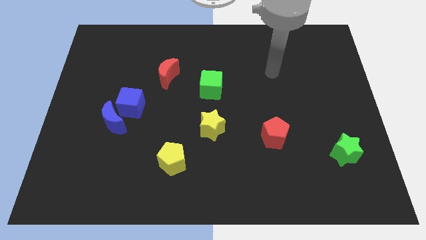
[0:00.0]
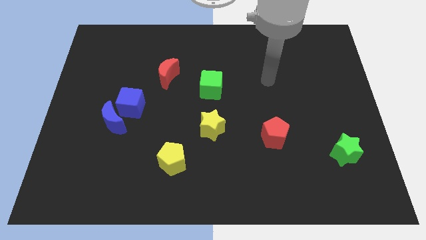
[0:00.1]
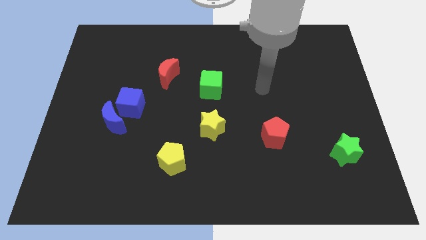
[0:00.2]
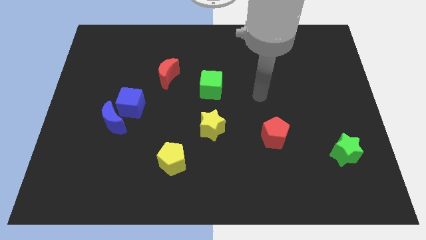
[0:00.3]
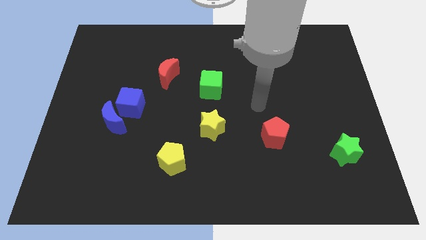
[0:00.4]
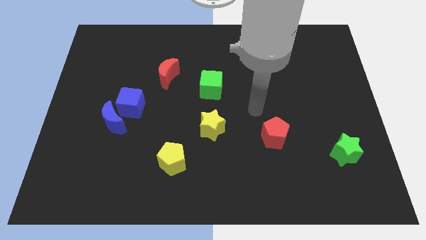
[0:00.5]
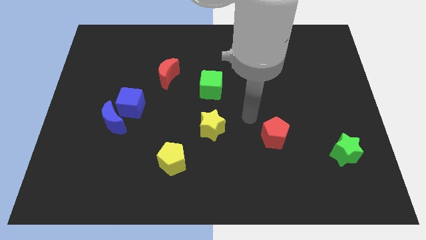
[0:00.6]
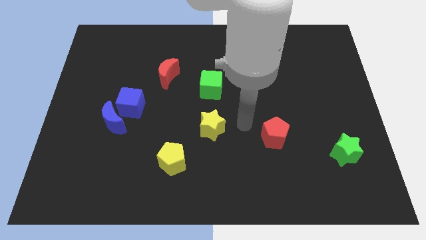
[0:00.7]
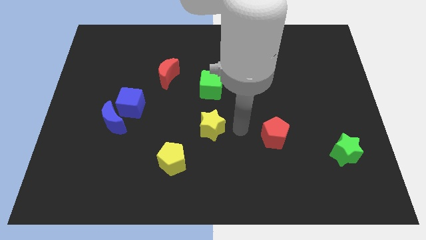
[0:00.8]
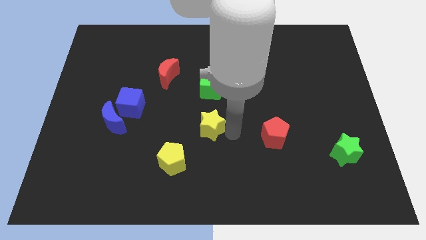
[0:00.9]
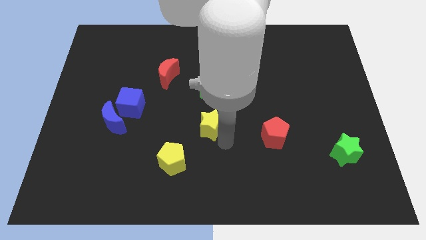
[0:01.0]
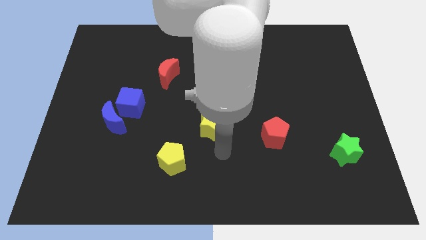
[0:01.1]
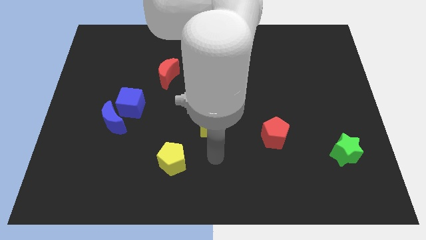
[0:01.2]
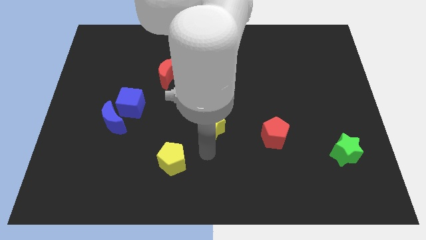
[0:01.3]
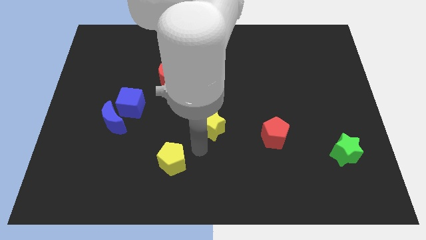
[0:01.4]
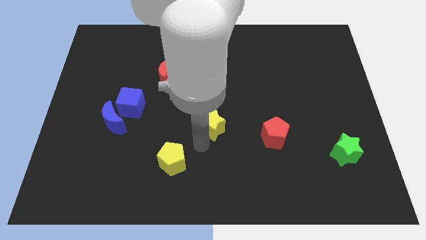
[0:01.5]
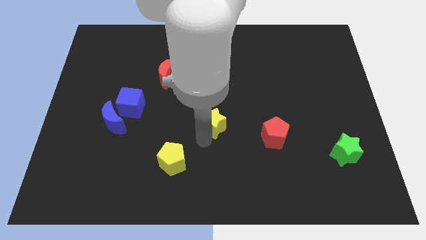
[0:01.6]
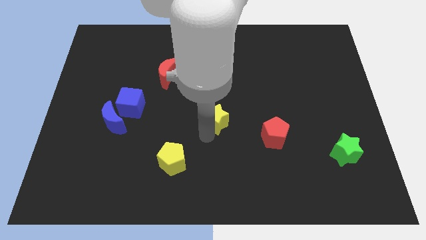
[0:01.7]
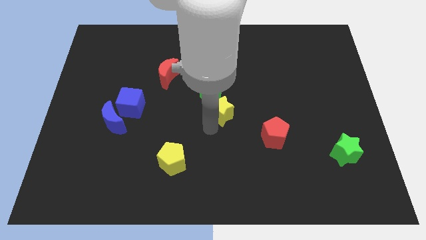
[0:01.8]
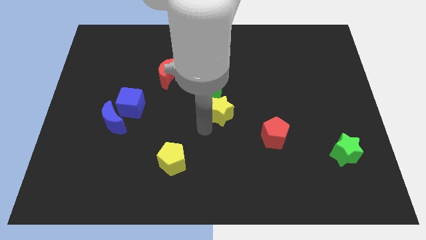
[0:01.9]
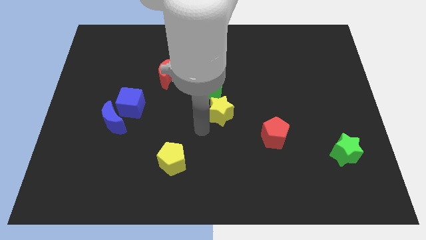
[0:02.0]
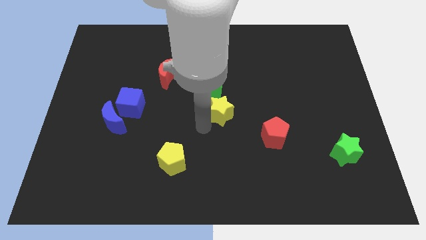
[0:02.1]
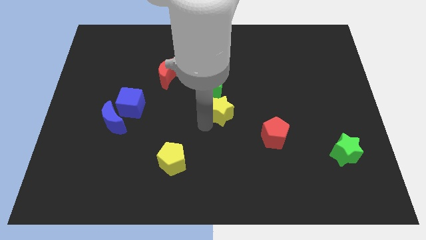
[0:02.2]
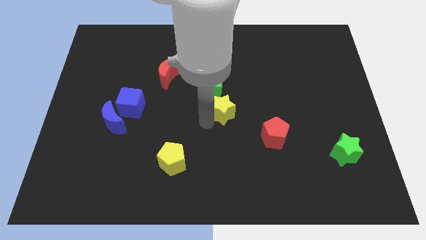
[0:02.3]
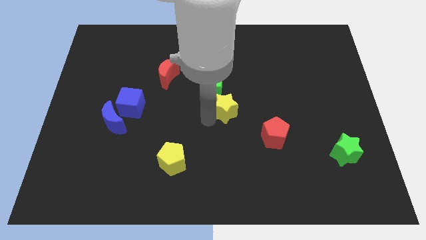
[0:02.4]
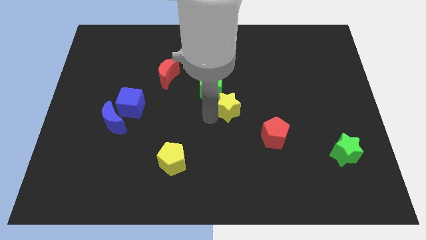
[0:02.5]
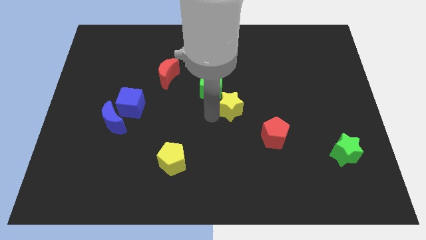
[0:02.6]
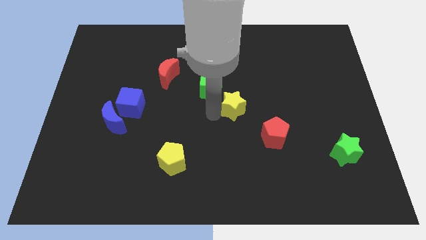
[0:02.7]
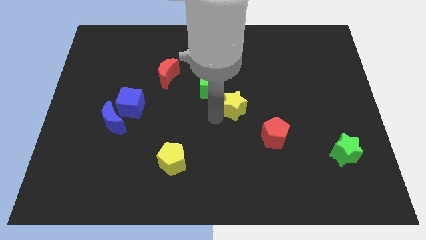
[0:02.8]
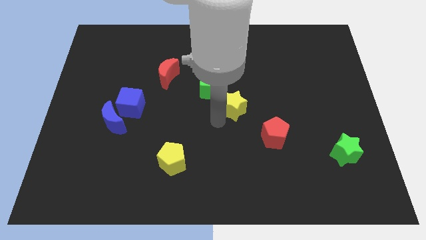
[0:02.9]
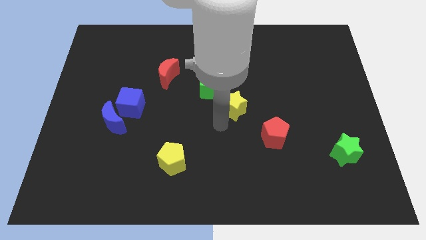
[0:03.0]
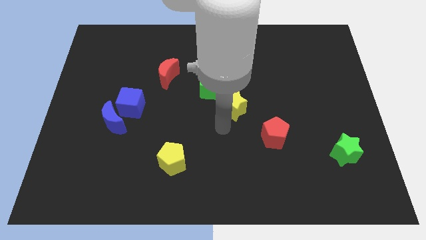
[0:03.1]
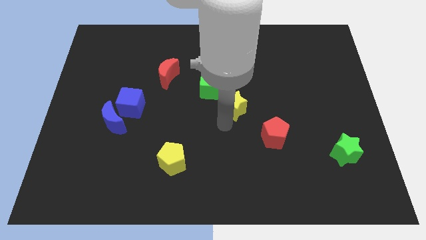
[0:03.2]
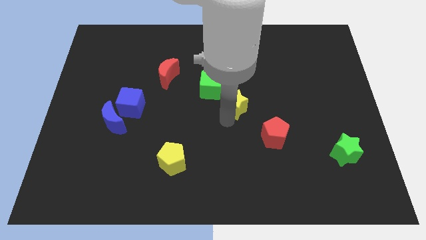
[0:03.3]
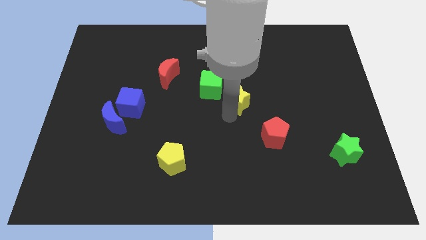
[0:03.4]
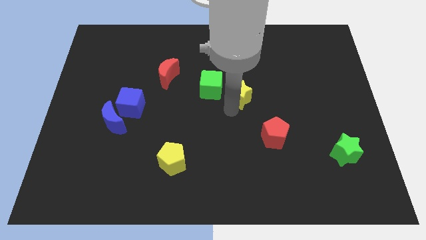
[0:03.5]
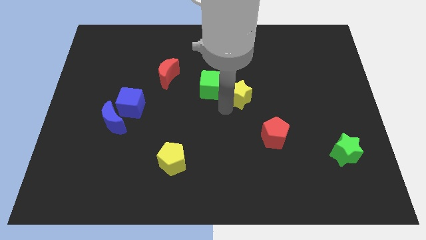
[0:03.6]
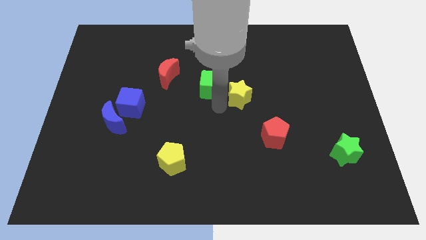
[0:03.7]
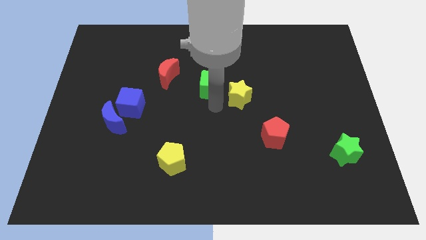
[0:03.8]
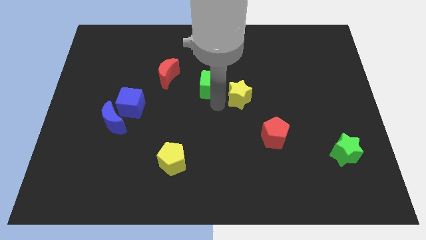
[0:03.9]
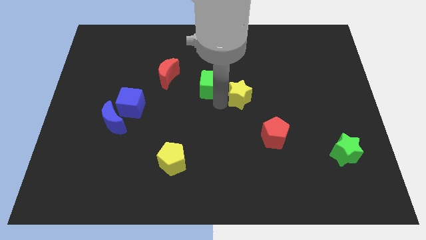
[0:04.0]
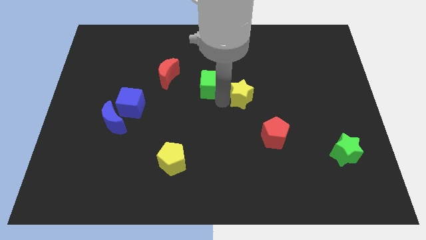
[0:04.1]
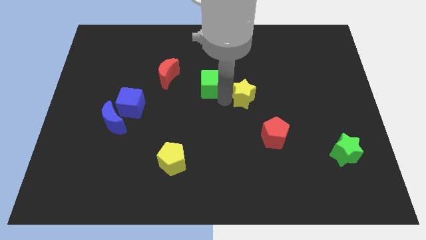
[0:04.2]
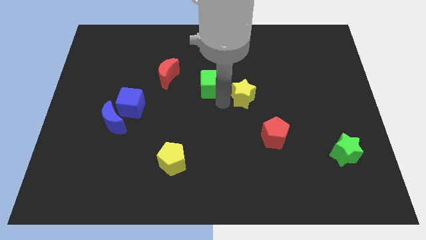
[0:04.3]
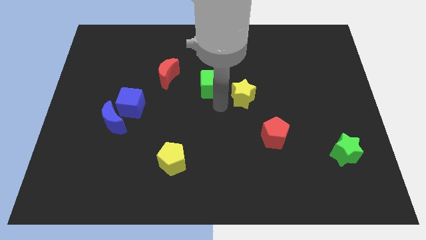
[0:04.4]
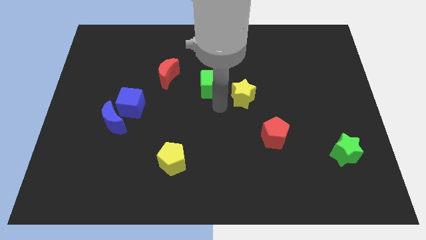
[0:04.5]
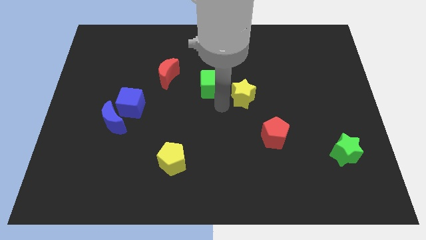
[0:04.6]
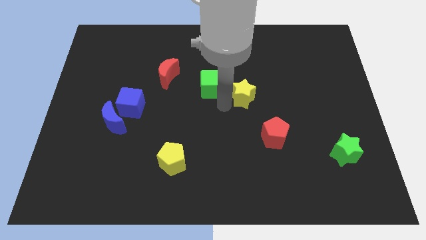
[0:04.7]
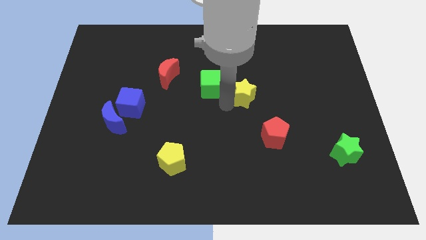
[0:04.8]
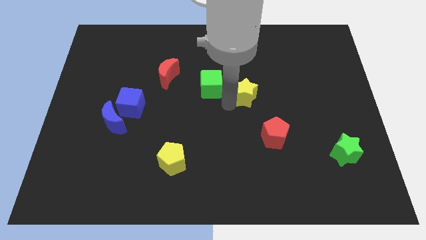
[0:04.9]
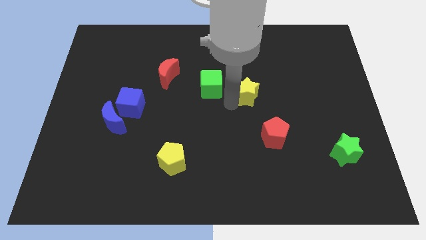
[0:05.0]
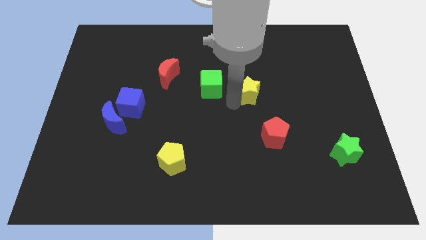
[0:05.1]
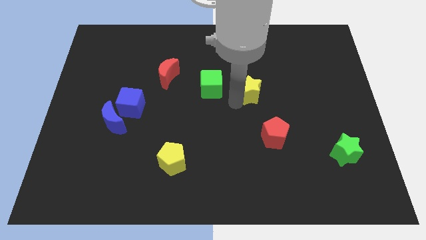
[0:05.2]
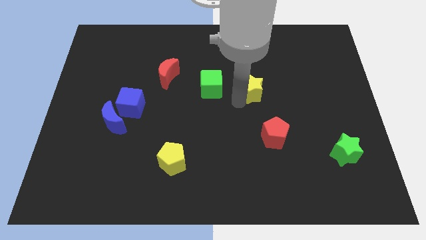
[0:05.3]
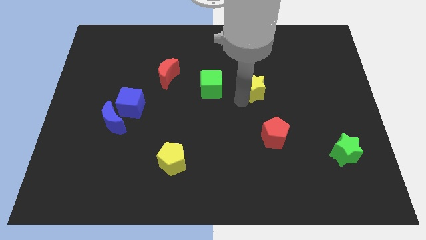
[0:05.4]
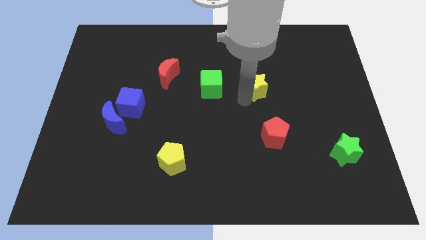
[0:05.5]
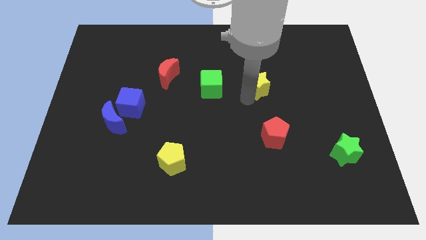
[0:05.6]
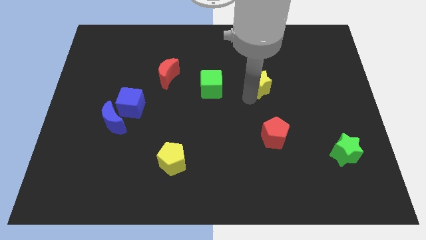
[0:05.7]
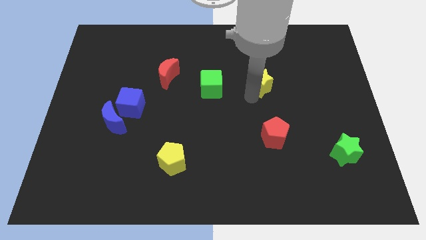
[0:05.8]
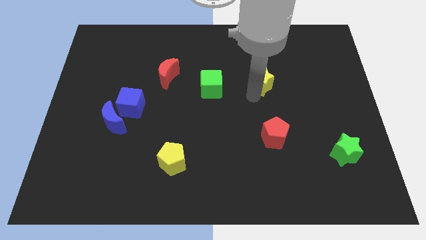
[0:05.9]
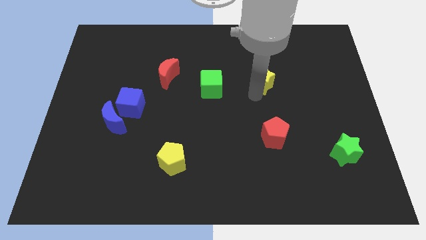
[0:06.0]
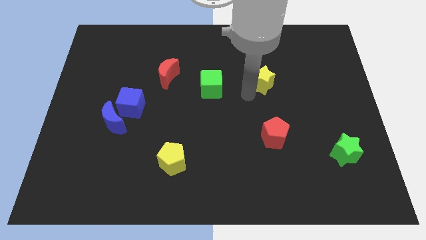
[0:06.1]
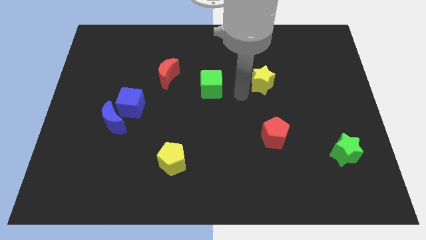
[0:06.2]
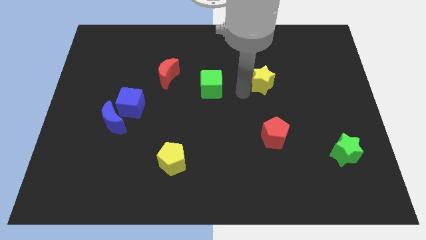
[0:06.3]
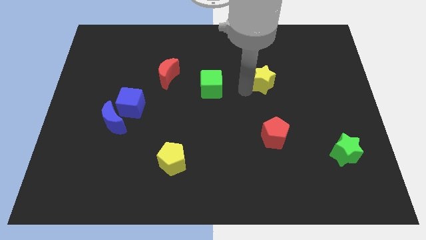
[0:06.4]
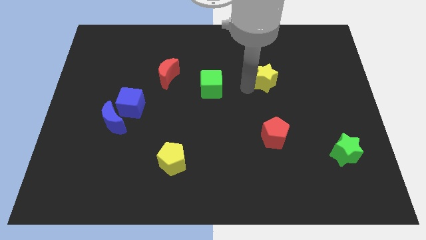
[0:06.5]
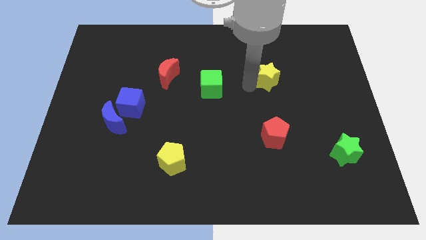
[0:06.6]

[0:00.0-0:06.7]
move the yellow star upwards and then to the right

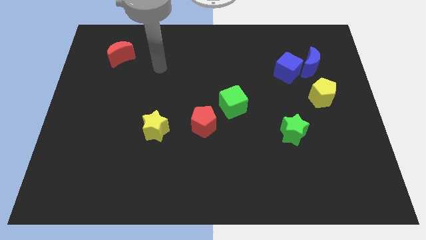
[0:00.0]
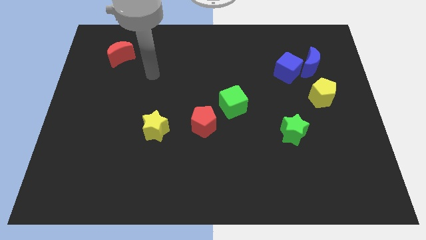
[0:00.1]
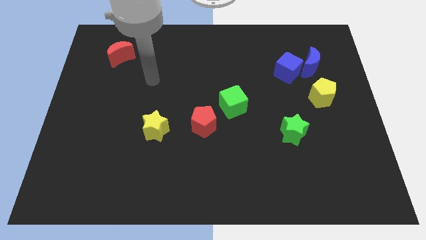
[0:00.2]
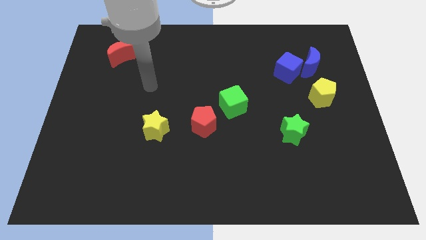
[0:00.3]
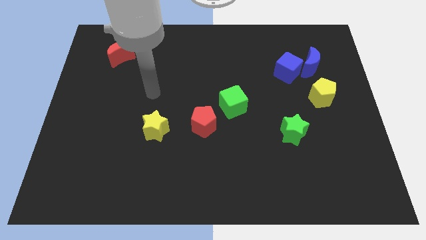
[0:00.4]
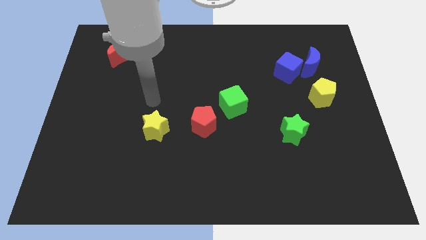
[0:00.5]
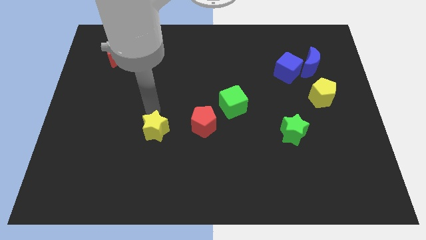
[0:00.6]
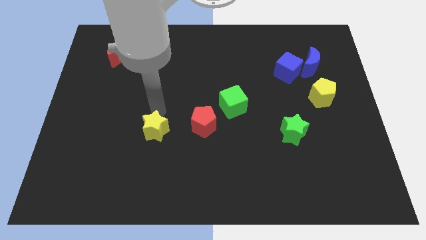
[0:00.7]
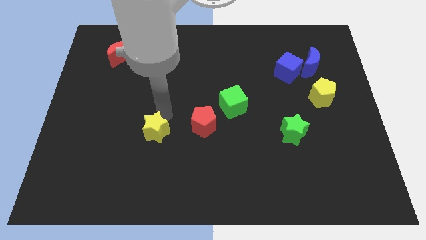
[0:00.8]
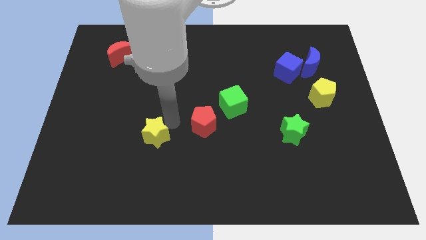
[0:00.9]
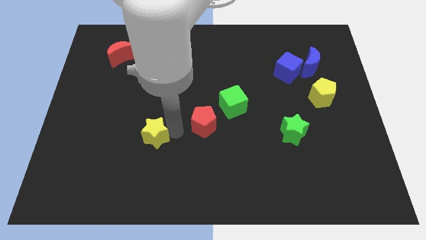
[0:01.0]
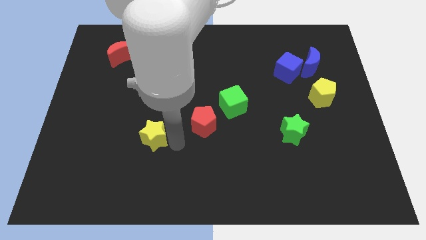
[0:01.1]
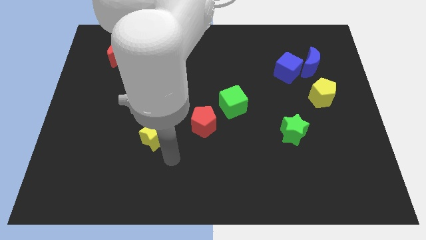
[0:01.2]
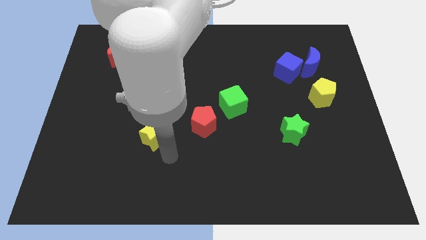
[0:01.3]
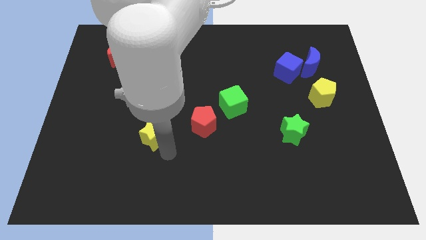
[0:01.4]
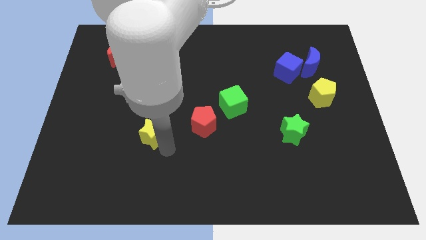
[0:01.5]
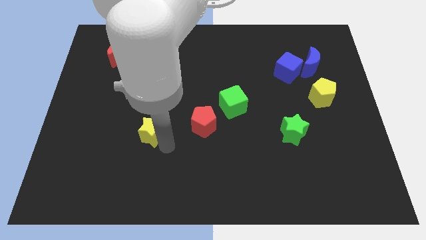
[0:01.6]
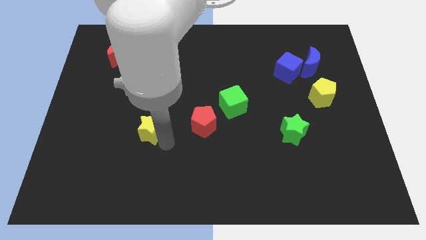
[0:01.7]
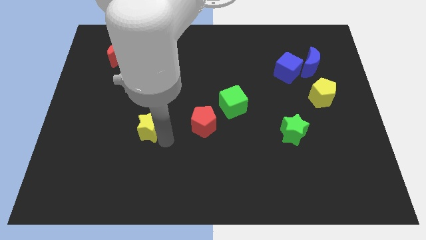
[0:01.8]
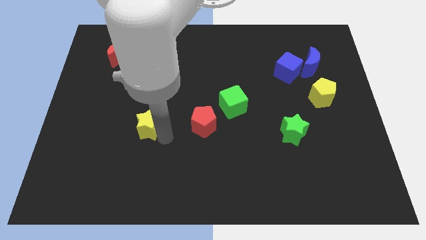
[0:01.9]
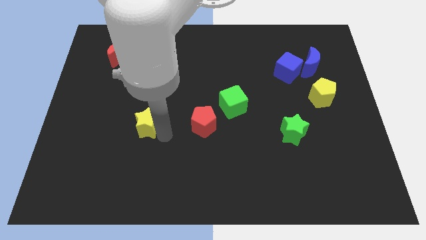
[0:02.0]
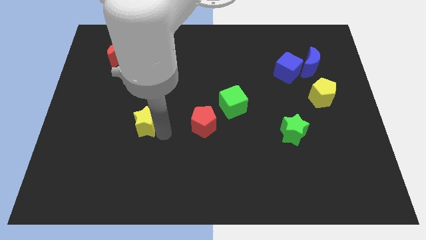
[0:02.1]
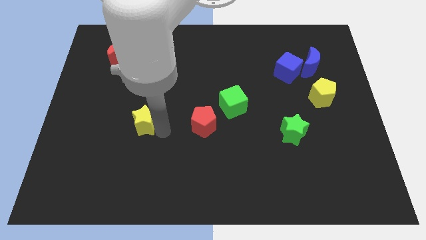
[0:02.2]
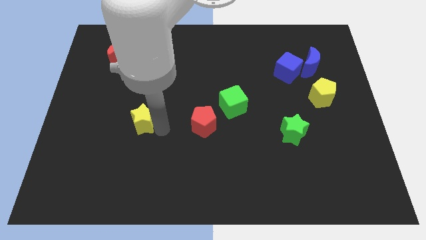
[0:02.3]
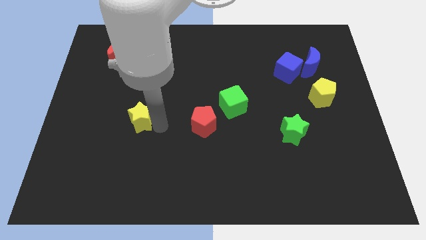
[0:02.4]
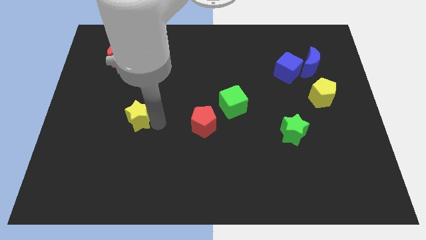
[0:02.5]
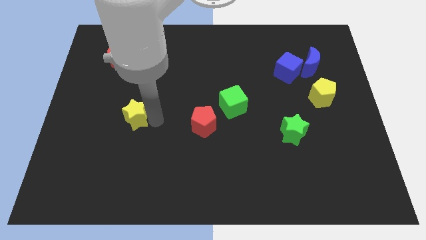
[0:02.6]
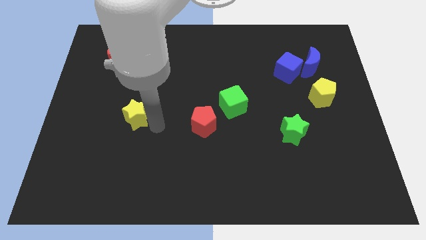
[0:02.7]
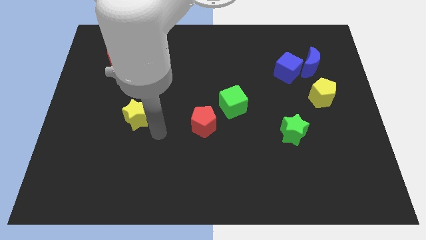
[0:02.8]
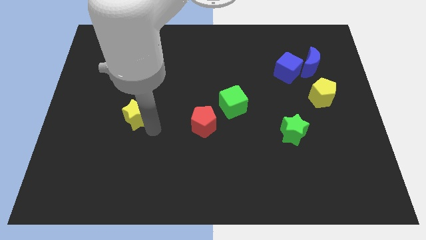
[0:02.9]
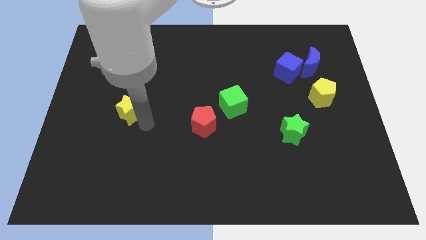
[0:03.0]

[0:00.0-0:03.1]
push the yellow star diagonally up and left a little bit
